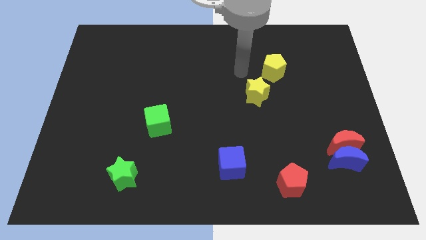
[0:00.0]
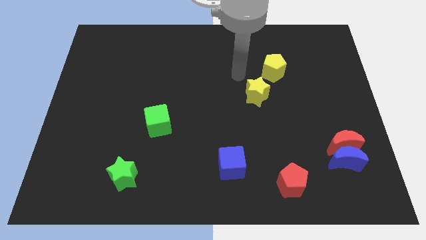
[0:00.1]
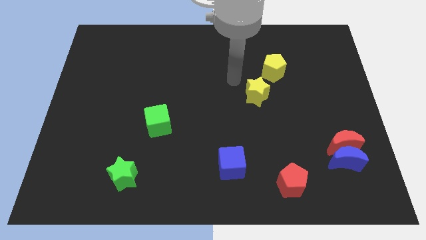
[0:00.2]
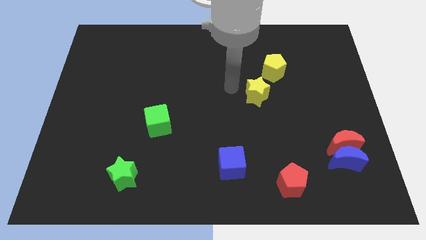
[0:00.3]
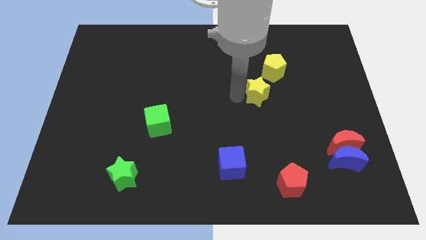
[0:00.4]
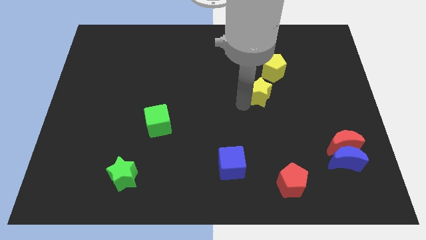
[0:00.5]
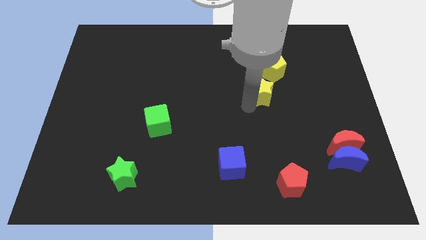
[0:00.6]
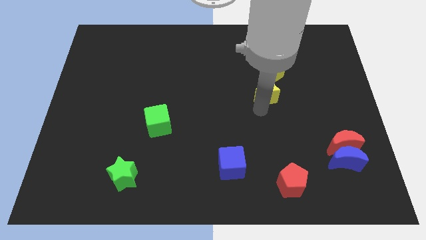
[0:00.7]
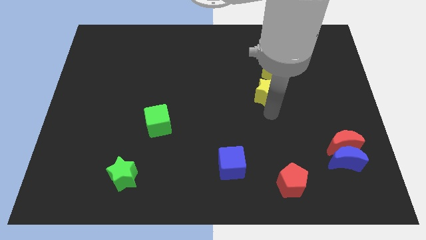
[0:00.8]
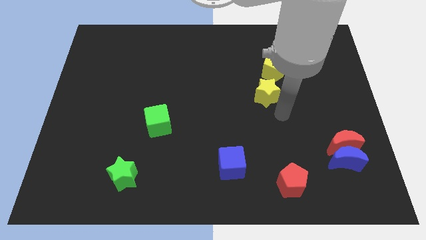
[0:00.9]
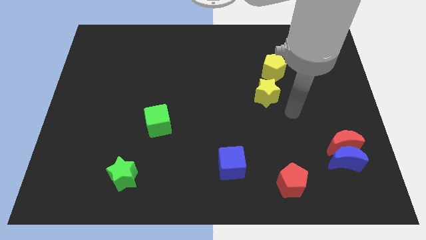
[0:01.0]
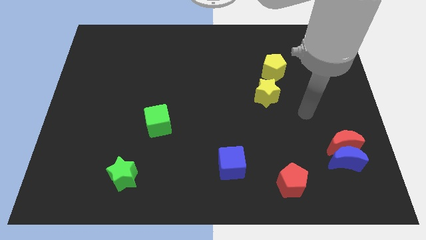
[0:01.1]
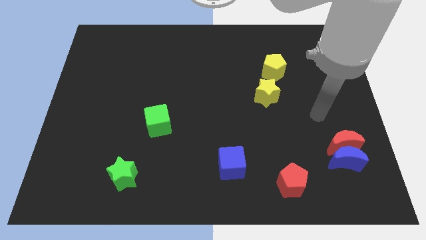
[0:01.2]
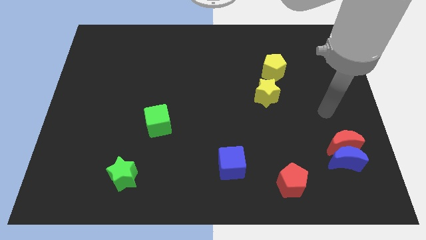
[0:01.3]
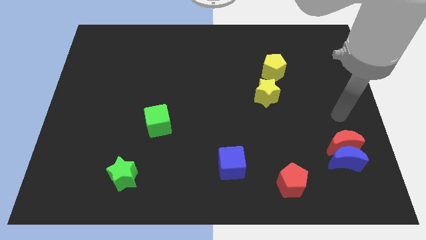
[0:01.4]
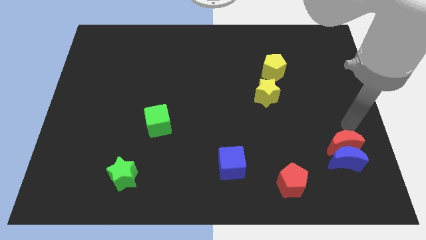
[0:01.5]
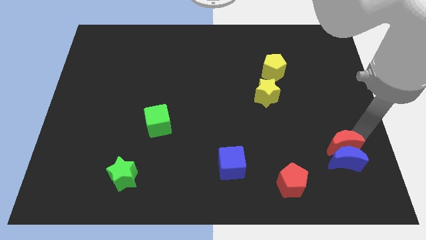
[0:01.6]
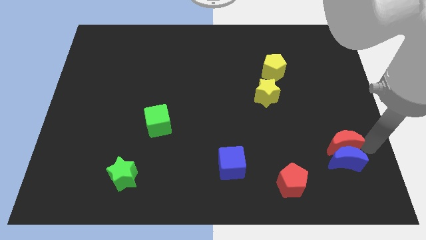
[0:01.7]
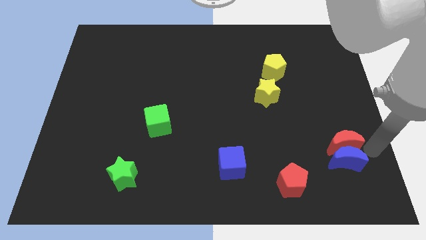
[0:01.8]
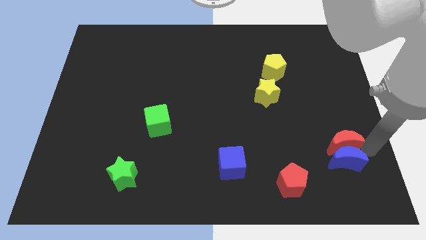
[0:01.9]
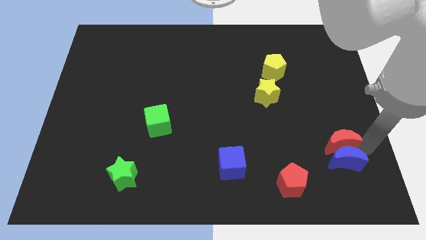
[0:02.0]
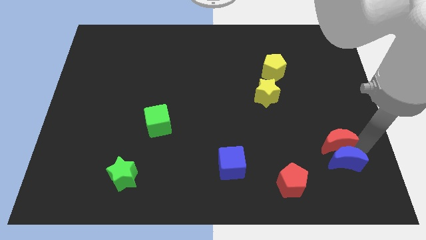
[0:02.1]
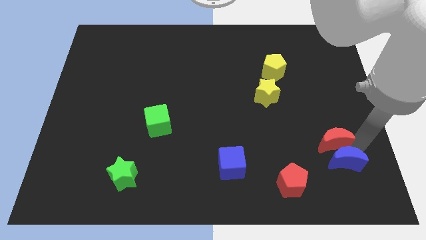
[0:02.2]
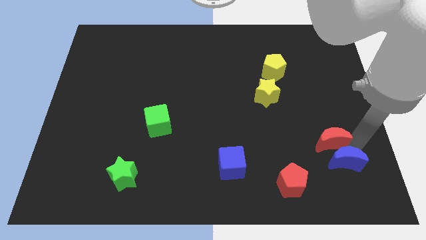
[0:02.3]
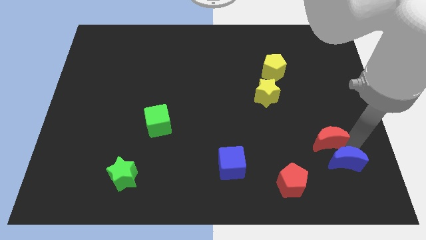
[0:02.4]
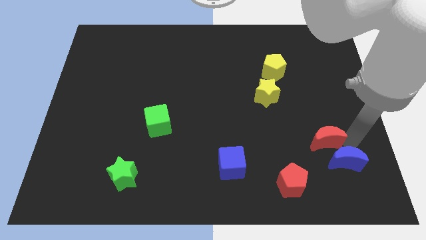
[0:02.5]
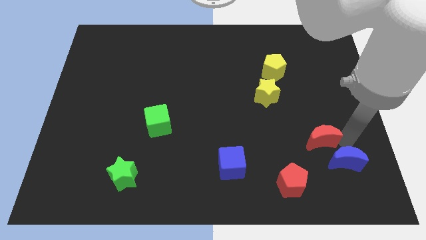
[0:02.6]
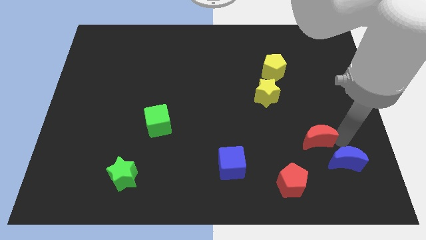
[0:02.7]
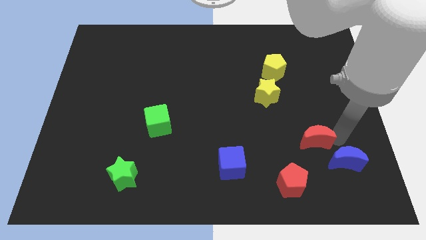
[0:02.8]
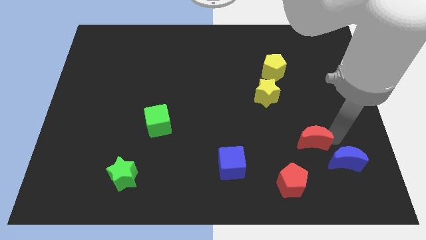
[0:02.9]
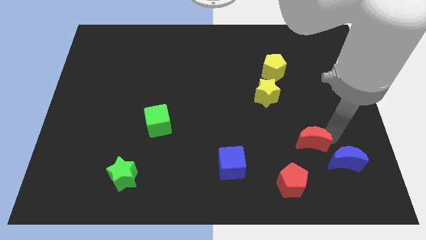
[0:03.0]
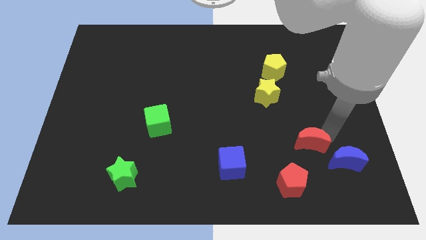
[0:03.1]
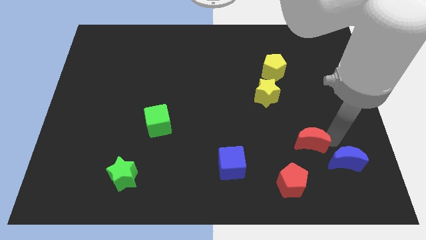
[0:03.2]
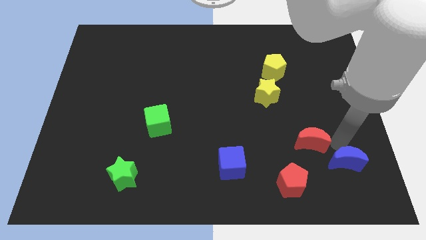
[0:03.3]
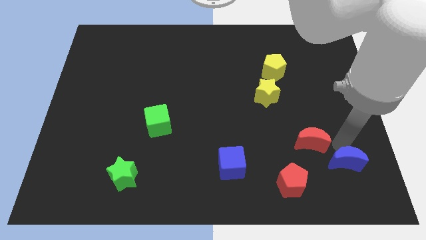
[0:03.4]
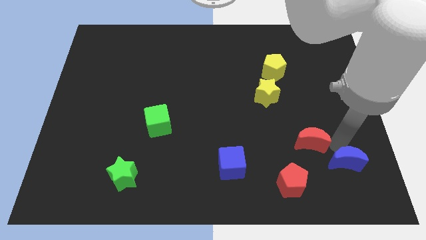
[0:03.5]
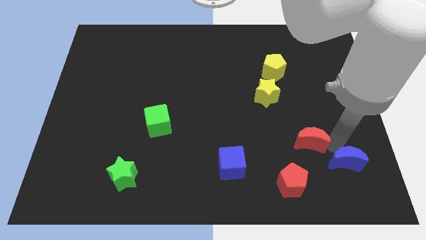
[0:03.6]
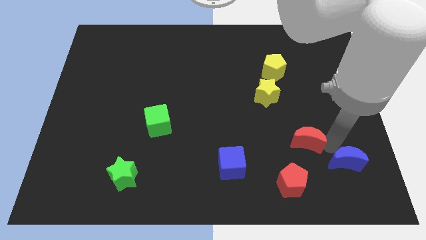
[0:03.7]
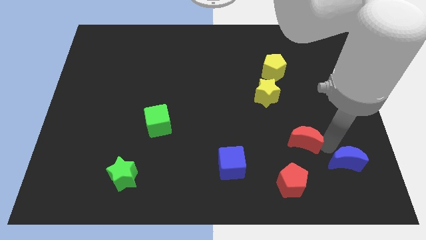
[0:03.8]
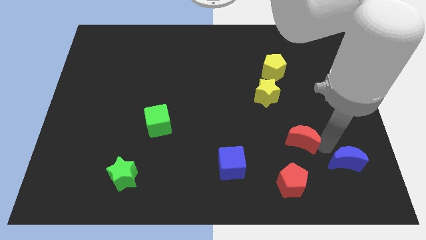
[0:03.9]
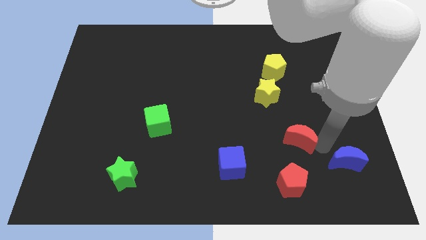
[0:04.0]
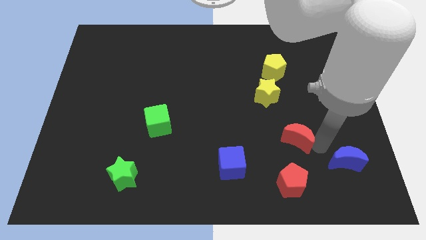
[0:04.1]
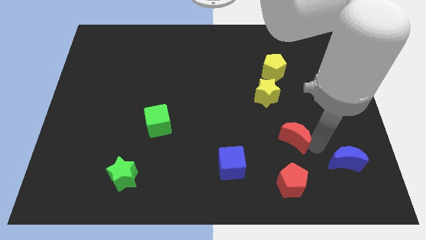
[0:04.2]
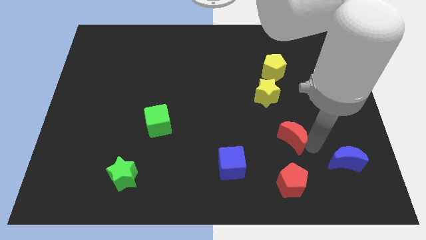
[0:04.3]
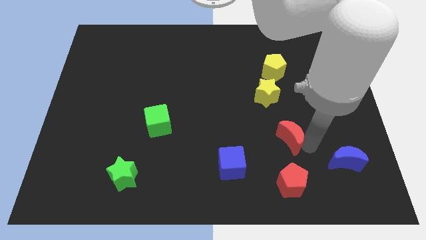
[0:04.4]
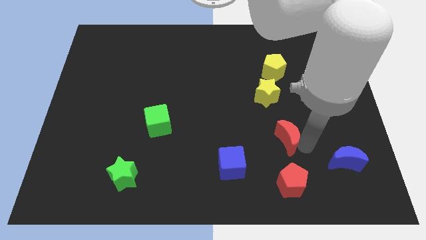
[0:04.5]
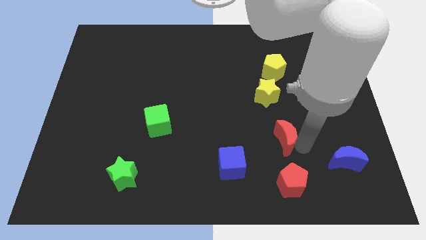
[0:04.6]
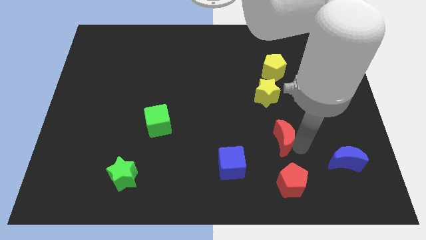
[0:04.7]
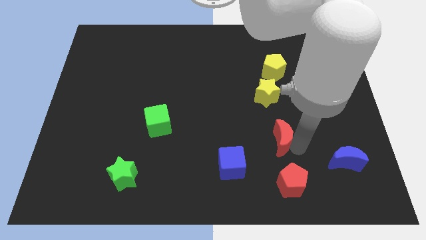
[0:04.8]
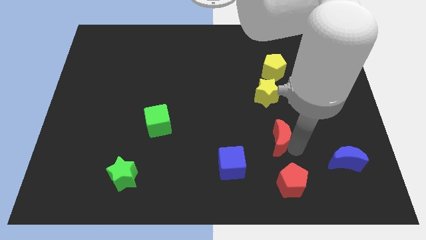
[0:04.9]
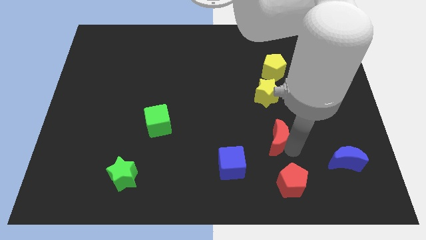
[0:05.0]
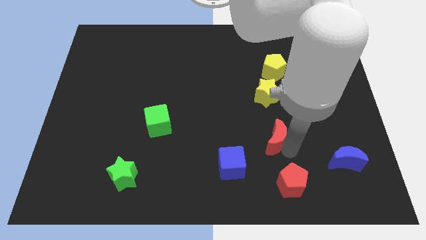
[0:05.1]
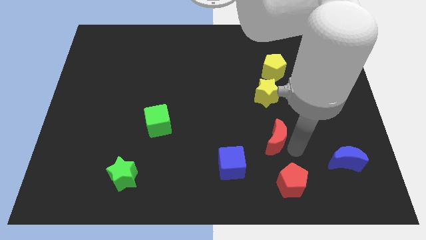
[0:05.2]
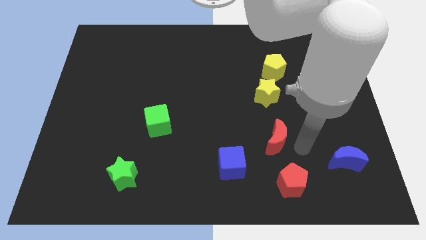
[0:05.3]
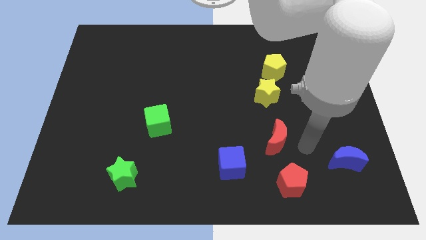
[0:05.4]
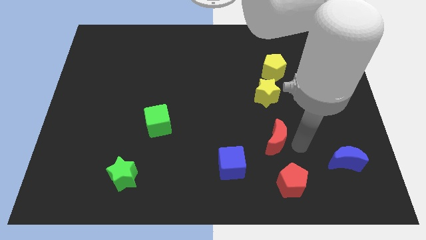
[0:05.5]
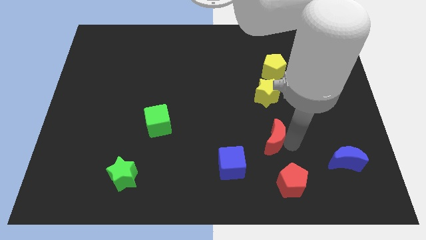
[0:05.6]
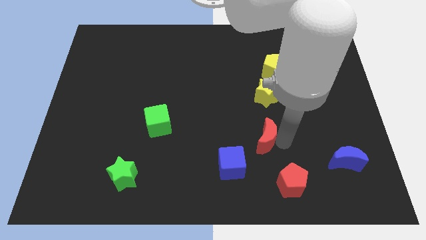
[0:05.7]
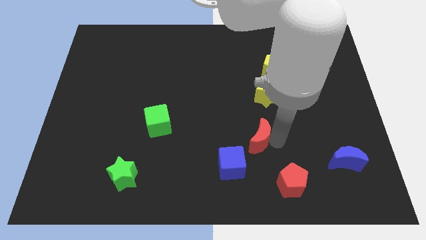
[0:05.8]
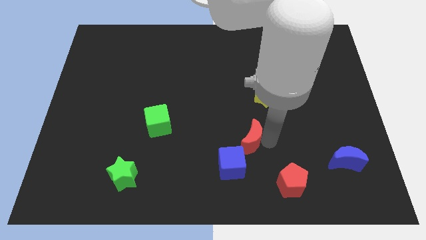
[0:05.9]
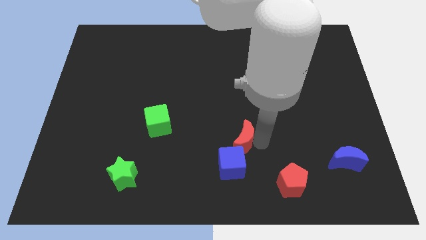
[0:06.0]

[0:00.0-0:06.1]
move the red moon left

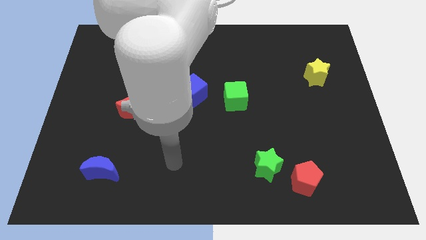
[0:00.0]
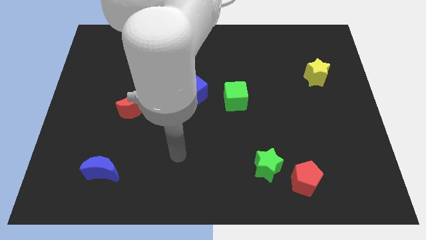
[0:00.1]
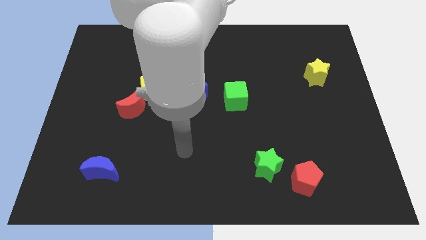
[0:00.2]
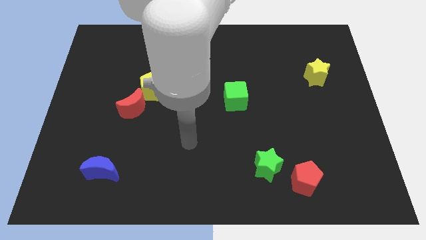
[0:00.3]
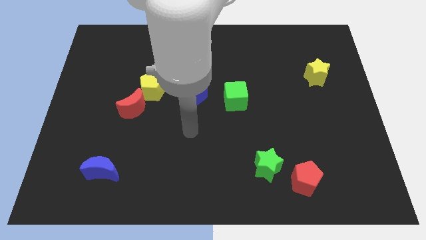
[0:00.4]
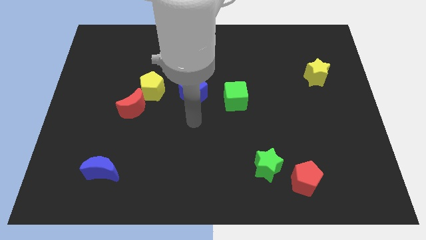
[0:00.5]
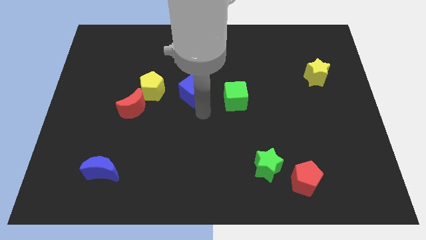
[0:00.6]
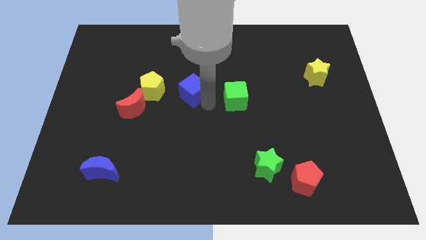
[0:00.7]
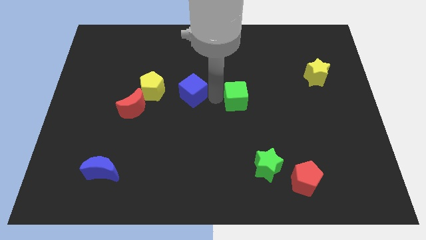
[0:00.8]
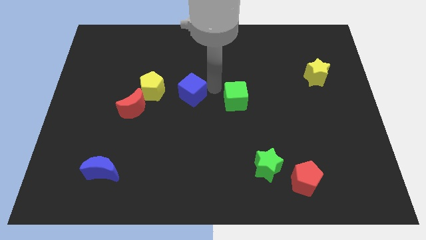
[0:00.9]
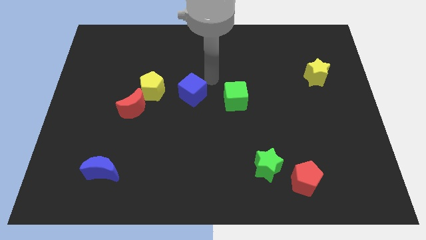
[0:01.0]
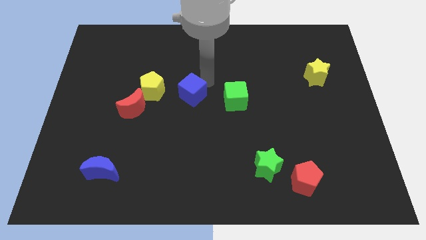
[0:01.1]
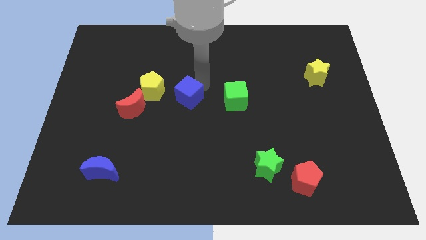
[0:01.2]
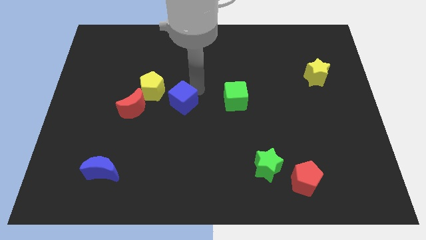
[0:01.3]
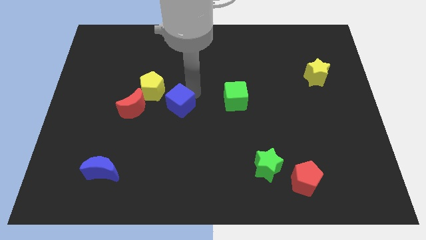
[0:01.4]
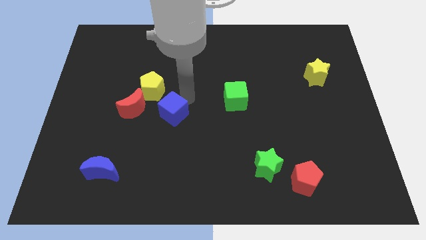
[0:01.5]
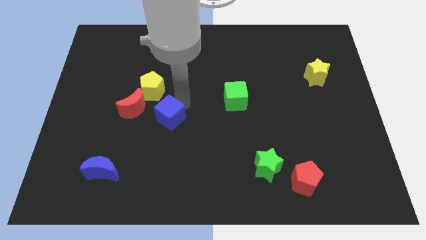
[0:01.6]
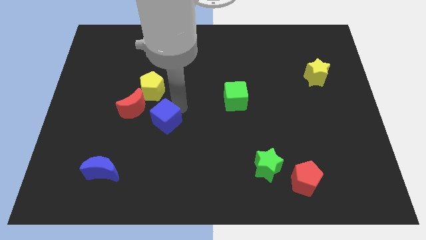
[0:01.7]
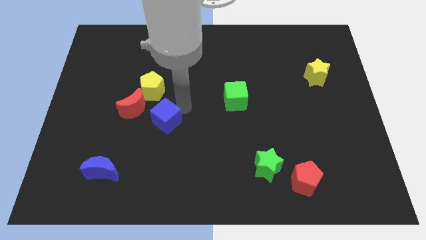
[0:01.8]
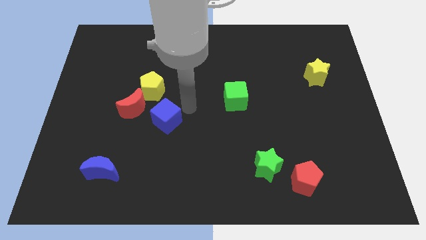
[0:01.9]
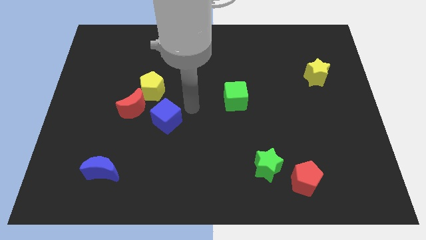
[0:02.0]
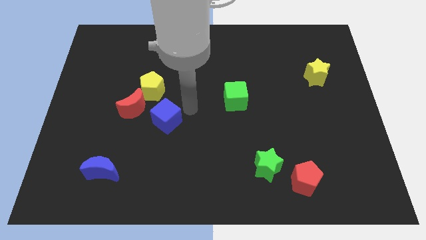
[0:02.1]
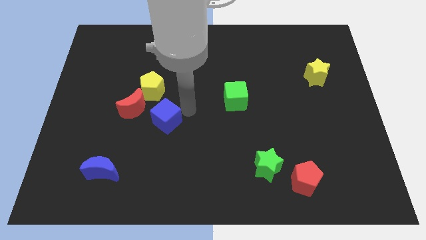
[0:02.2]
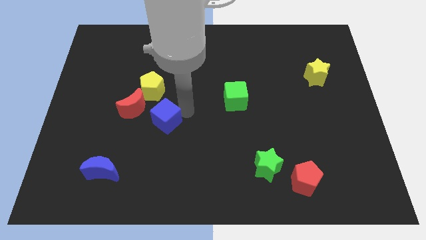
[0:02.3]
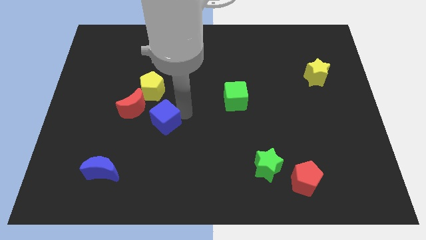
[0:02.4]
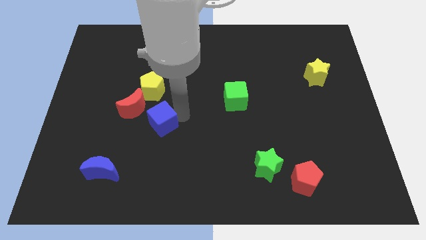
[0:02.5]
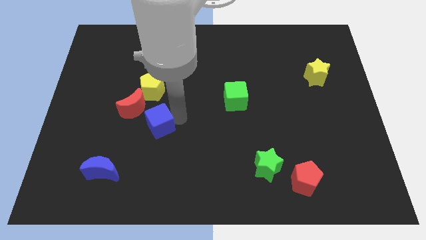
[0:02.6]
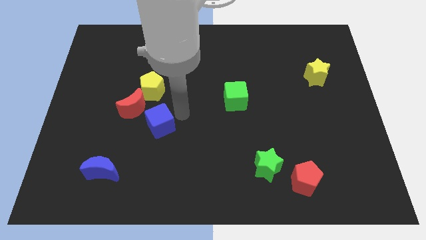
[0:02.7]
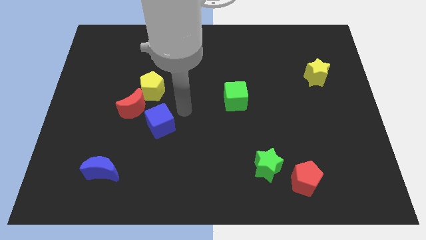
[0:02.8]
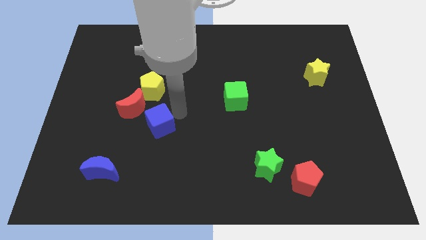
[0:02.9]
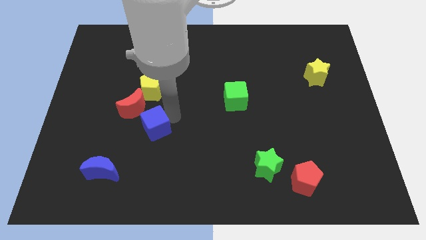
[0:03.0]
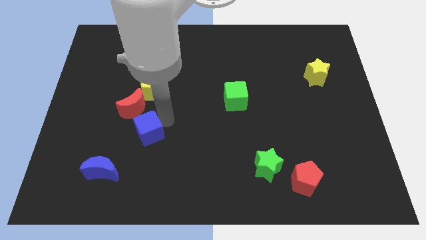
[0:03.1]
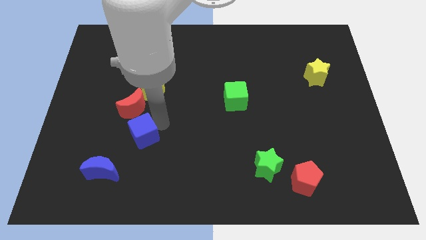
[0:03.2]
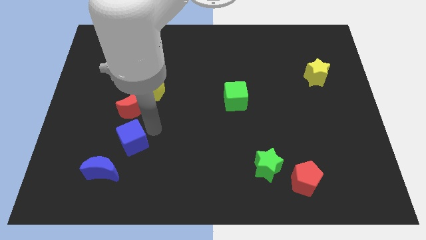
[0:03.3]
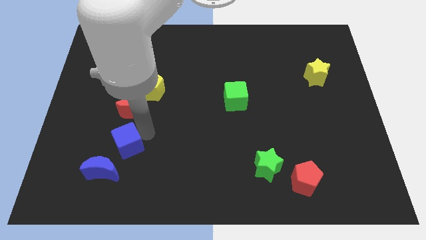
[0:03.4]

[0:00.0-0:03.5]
move the blue cube down and then left
